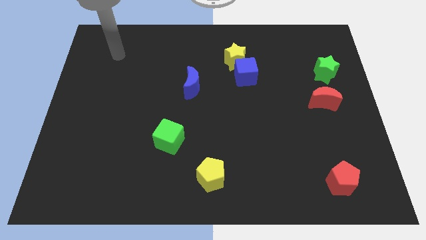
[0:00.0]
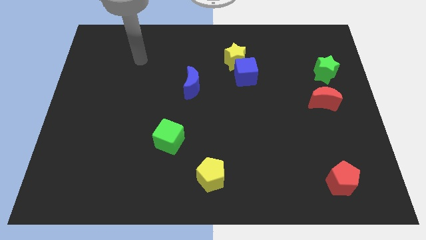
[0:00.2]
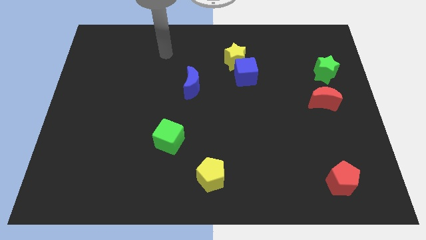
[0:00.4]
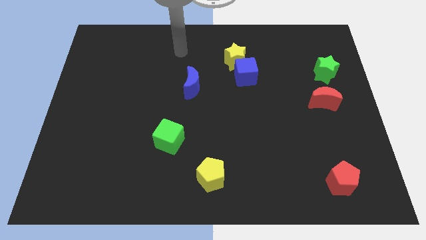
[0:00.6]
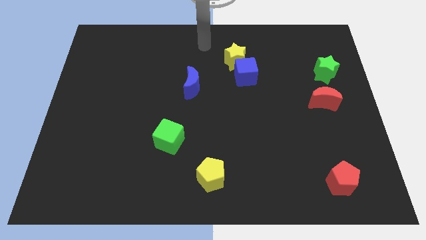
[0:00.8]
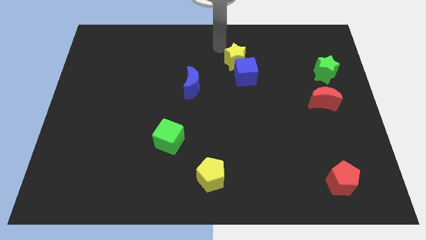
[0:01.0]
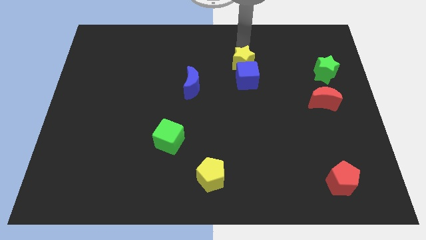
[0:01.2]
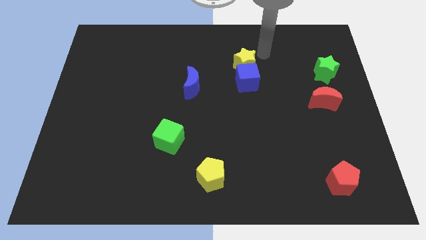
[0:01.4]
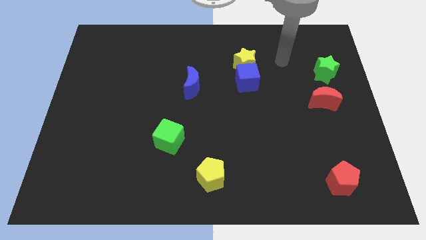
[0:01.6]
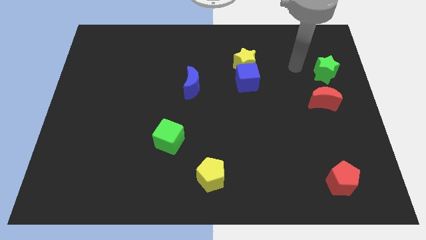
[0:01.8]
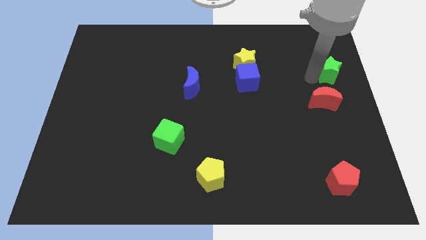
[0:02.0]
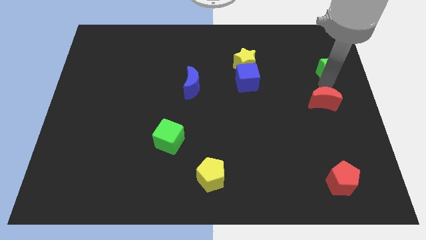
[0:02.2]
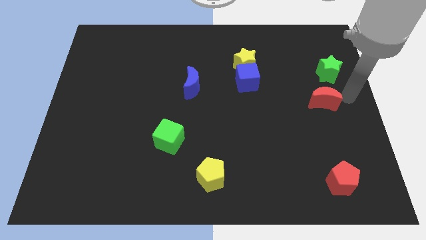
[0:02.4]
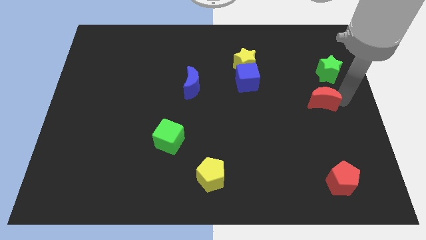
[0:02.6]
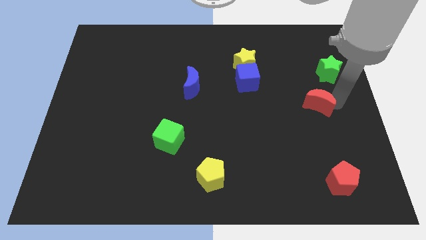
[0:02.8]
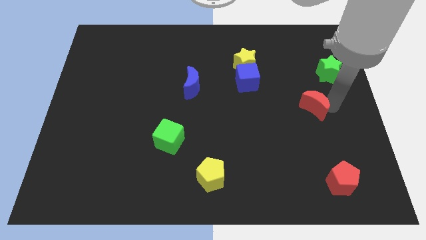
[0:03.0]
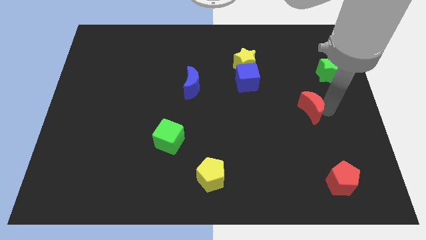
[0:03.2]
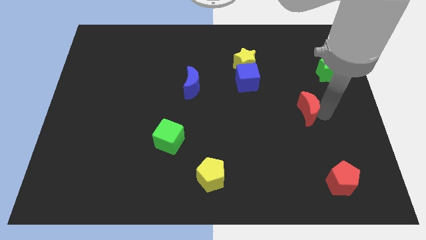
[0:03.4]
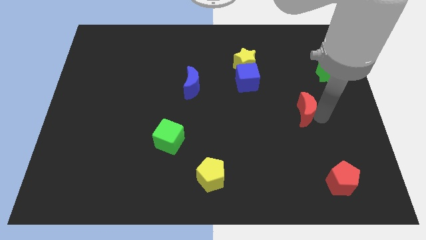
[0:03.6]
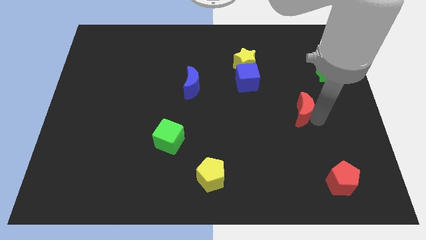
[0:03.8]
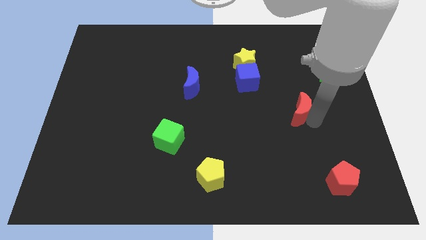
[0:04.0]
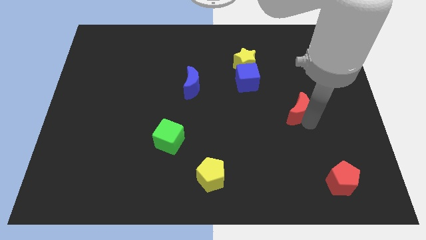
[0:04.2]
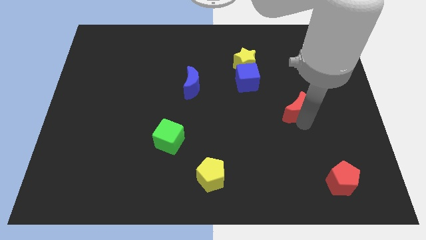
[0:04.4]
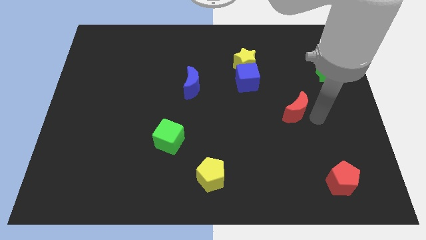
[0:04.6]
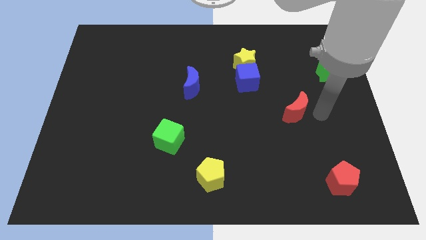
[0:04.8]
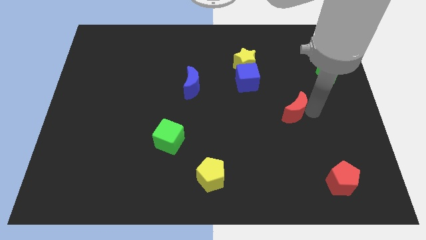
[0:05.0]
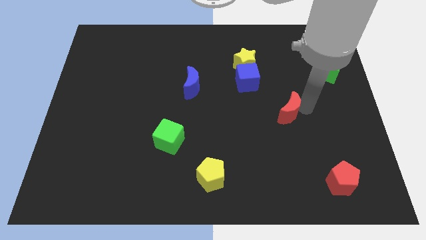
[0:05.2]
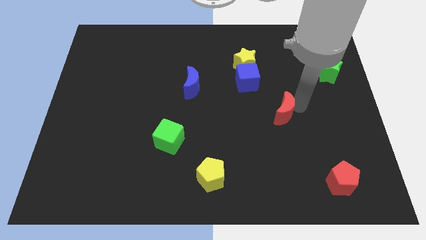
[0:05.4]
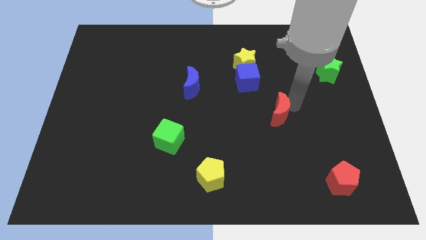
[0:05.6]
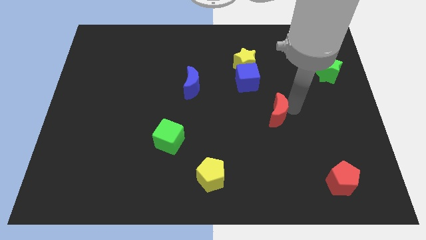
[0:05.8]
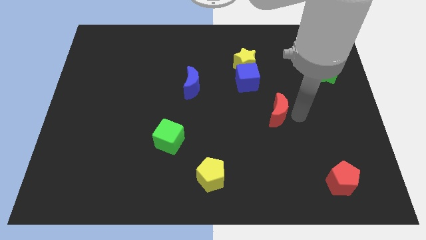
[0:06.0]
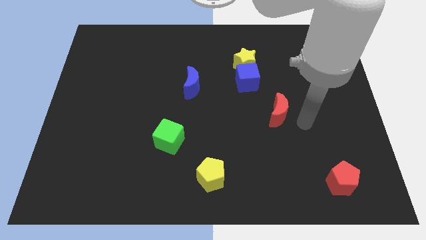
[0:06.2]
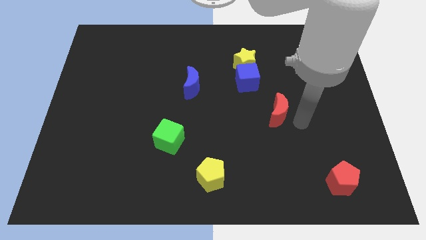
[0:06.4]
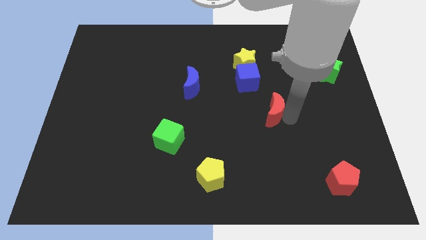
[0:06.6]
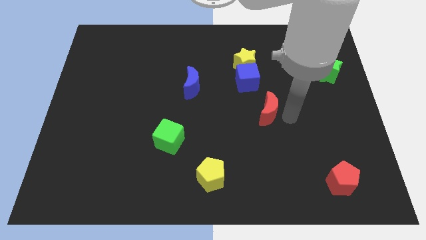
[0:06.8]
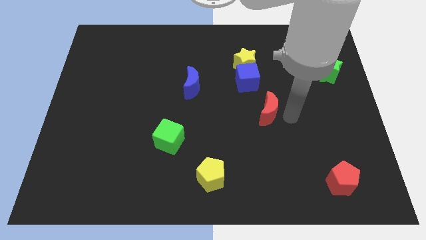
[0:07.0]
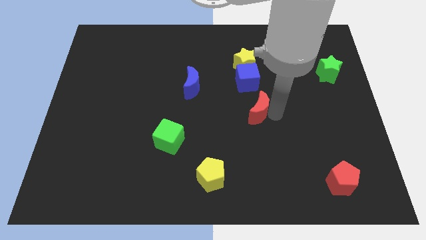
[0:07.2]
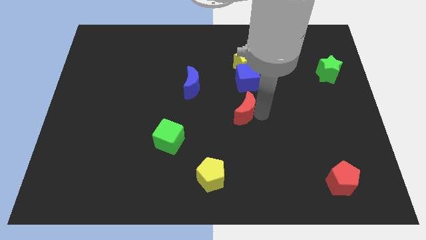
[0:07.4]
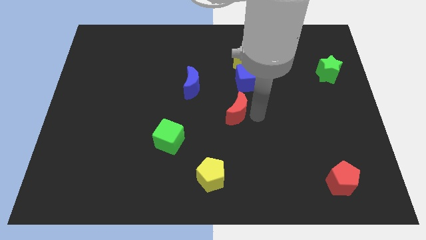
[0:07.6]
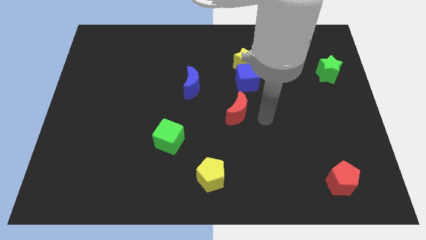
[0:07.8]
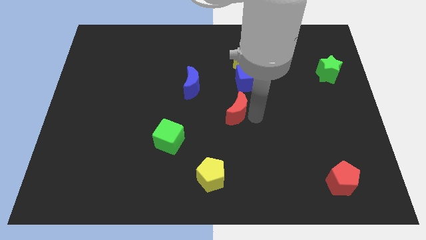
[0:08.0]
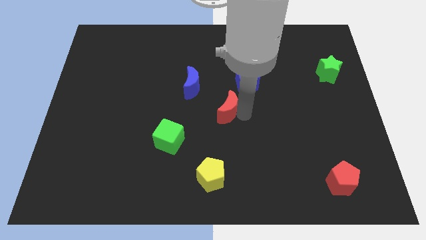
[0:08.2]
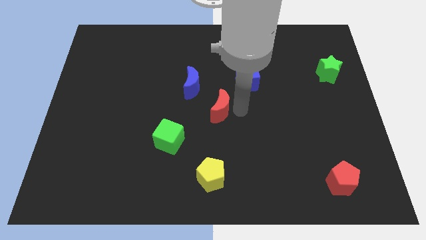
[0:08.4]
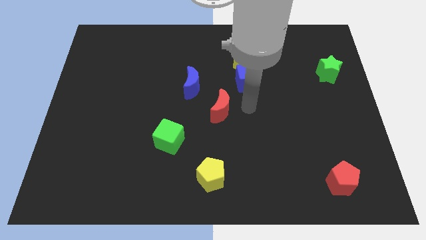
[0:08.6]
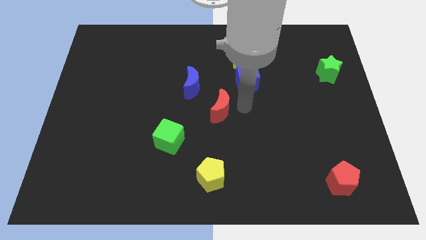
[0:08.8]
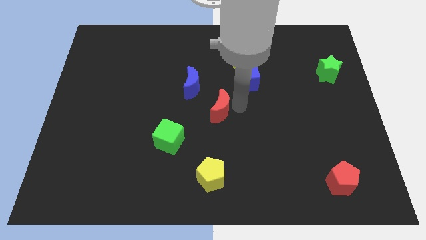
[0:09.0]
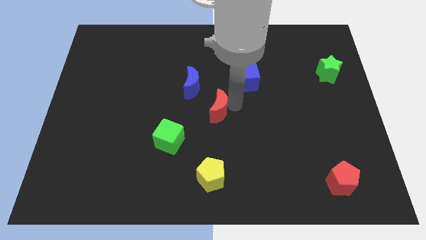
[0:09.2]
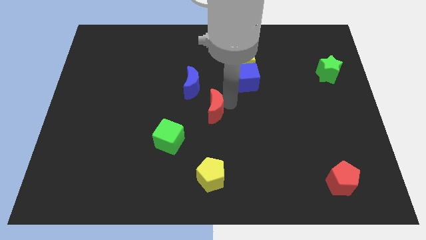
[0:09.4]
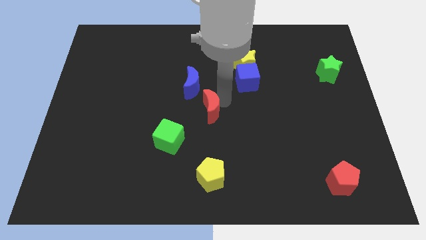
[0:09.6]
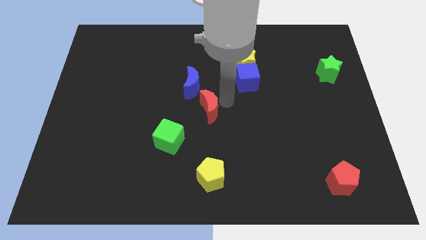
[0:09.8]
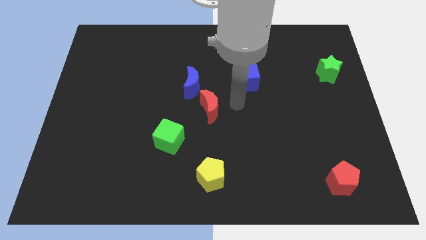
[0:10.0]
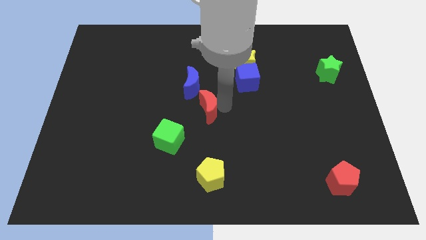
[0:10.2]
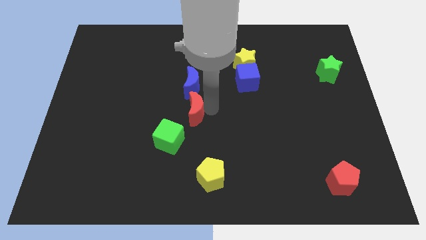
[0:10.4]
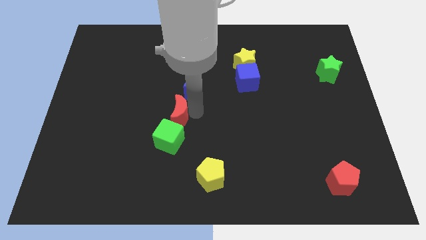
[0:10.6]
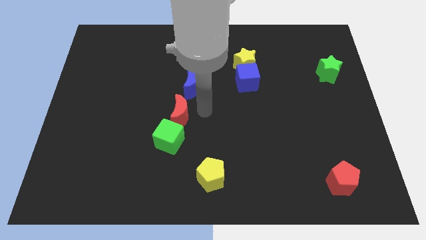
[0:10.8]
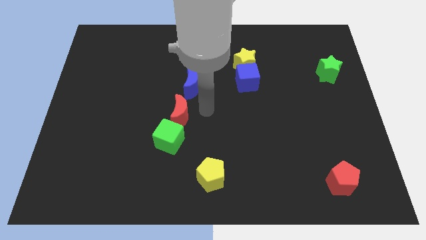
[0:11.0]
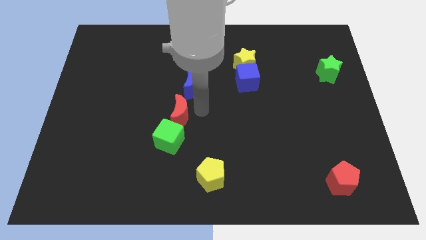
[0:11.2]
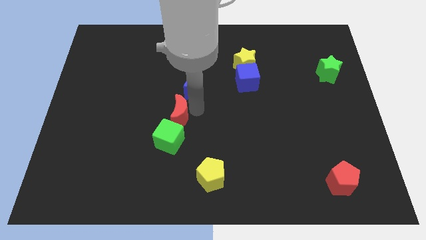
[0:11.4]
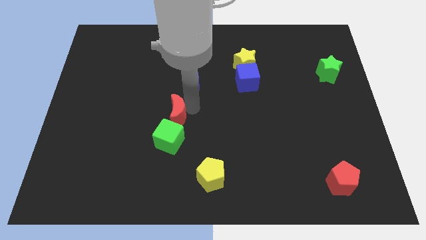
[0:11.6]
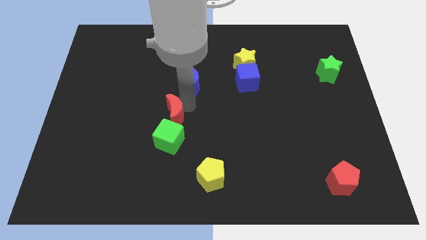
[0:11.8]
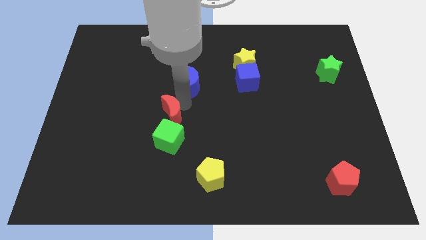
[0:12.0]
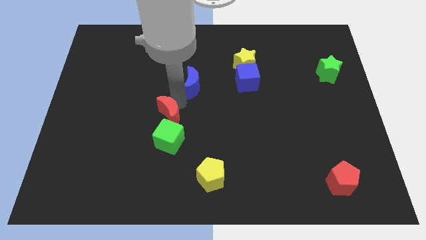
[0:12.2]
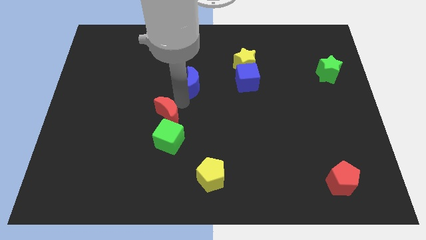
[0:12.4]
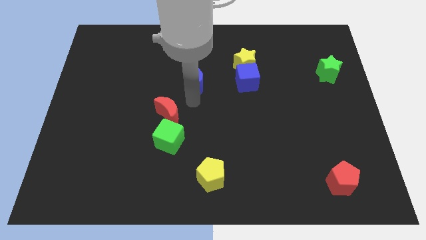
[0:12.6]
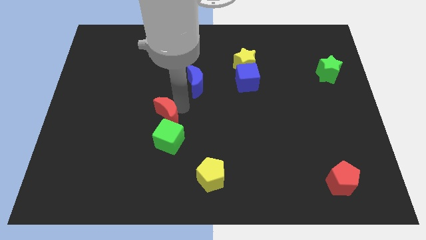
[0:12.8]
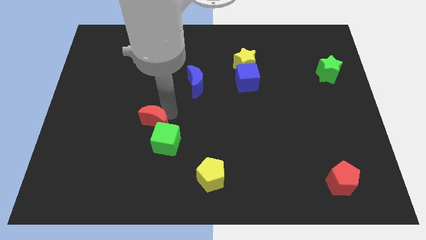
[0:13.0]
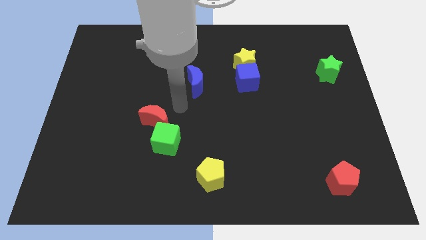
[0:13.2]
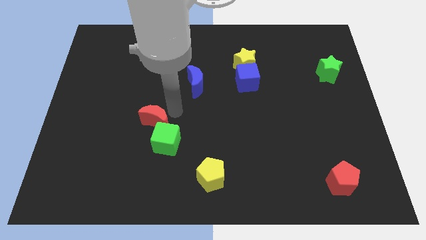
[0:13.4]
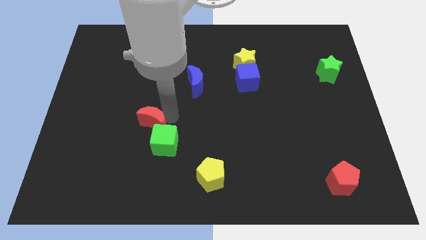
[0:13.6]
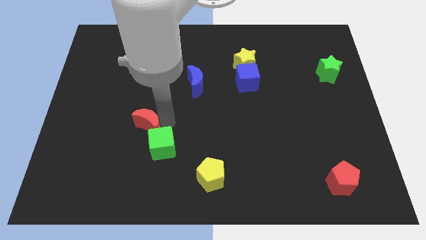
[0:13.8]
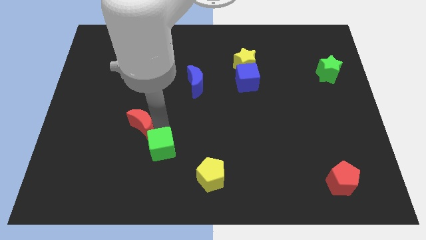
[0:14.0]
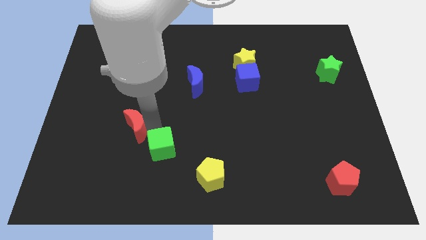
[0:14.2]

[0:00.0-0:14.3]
put the red moon left of the green cube

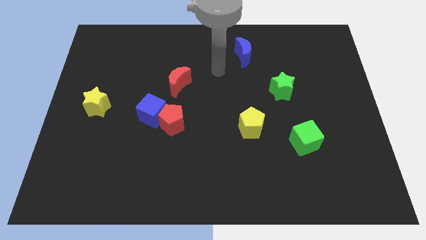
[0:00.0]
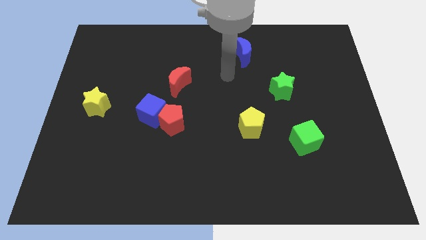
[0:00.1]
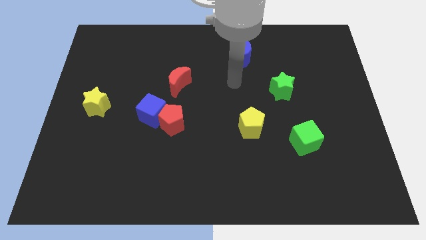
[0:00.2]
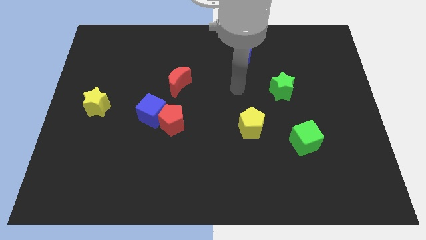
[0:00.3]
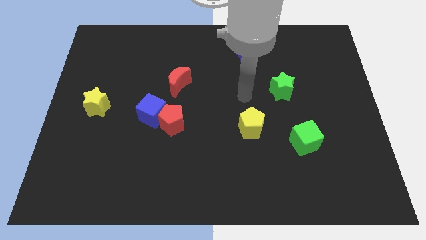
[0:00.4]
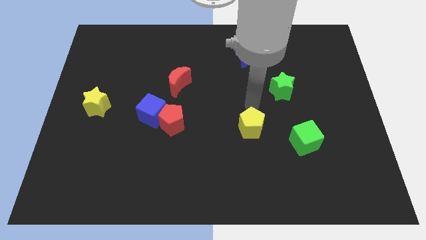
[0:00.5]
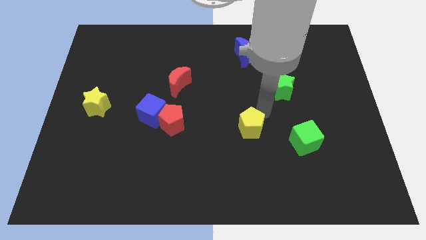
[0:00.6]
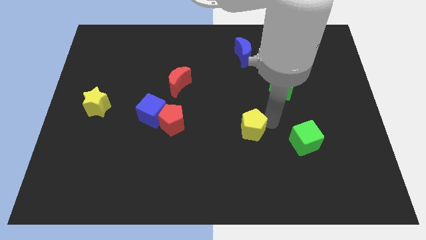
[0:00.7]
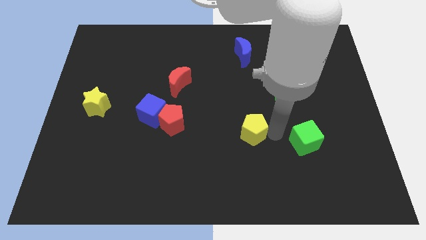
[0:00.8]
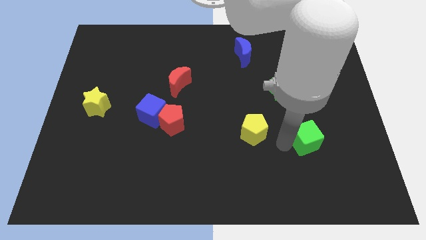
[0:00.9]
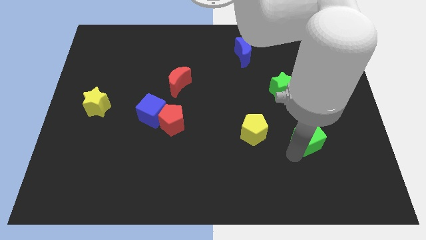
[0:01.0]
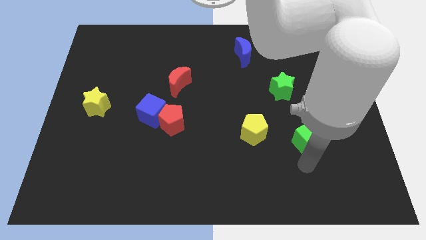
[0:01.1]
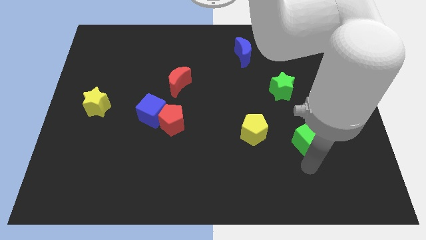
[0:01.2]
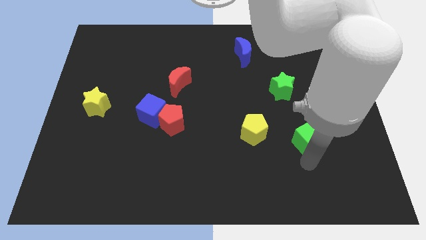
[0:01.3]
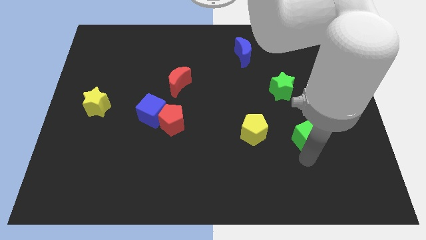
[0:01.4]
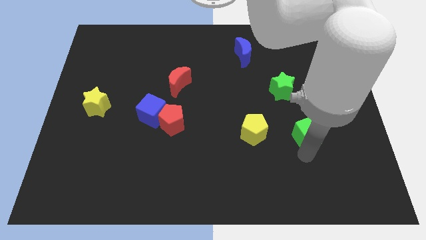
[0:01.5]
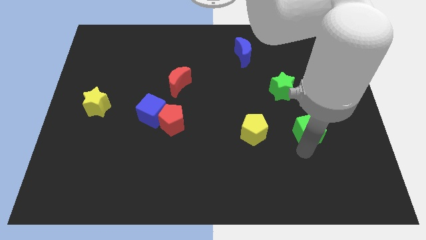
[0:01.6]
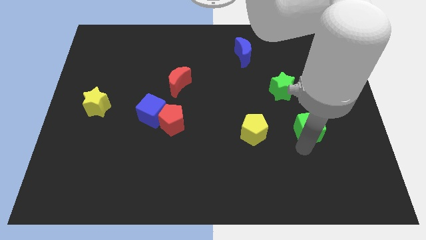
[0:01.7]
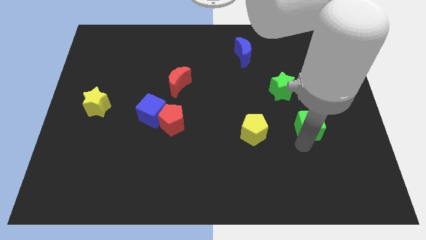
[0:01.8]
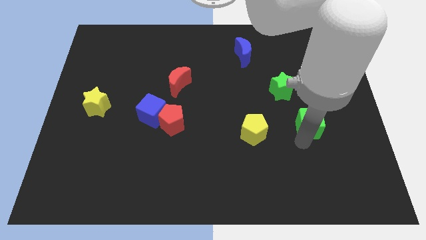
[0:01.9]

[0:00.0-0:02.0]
put the green cube to the bottom right side of the green star
